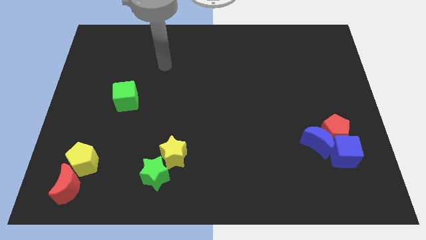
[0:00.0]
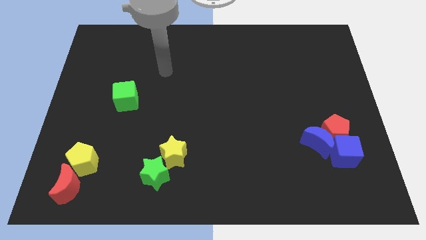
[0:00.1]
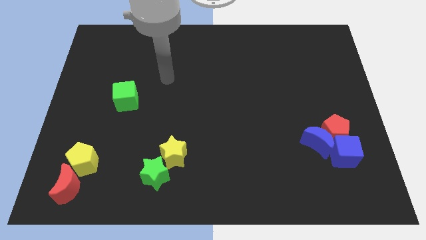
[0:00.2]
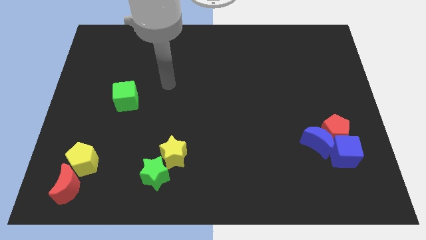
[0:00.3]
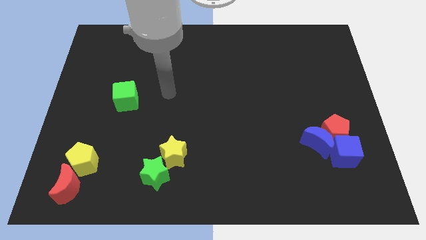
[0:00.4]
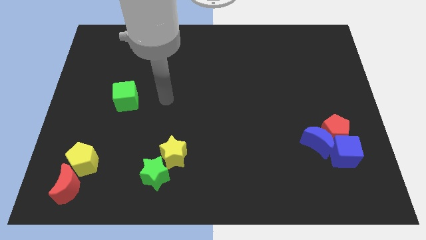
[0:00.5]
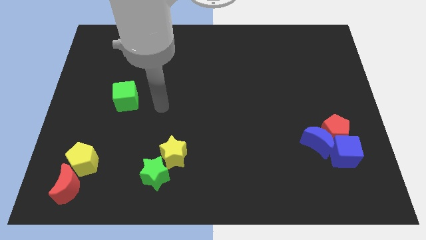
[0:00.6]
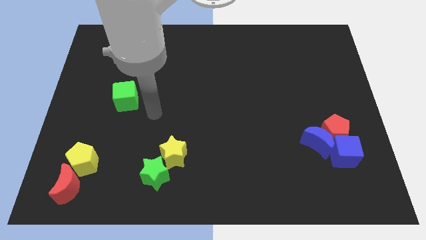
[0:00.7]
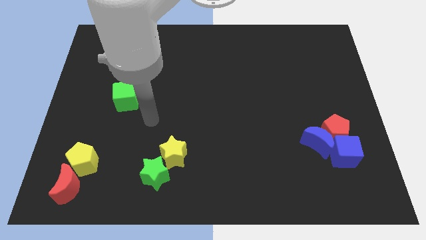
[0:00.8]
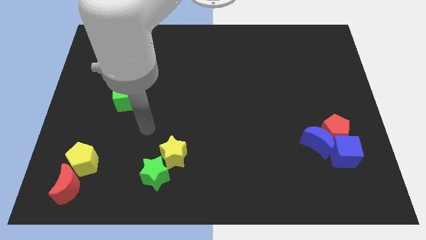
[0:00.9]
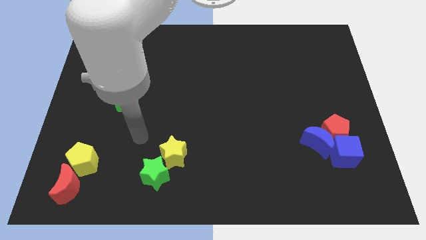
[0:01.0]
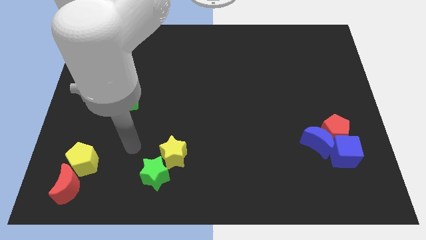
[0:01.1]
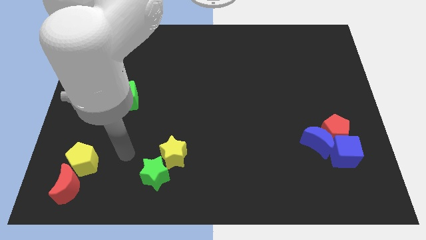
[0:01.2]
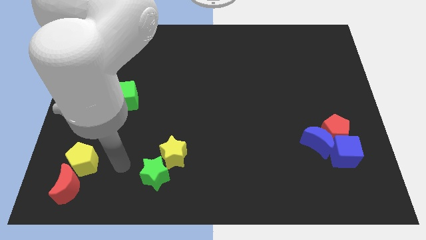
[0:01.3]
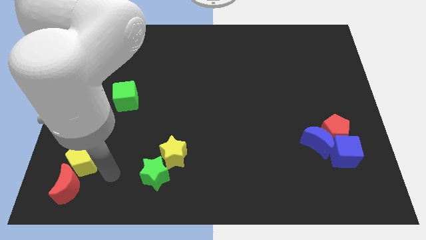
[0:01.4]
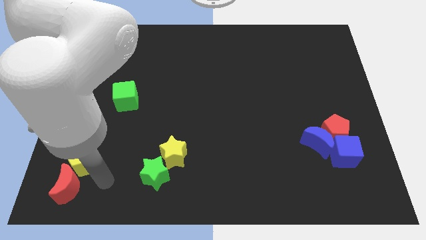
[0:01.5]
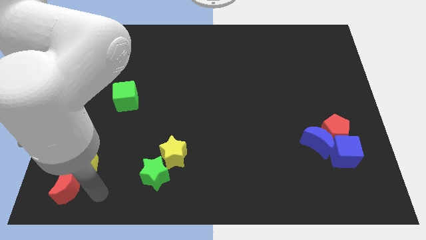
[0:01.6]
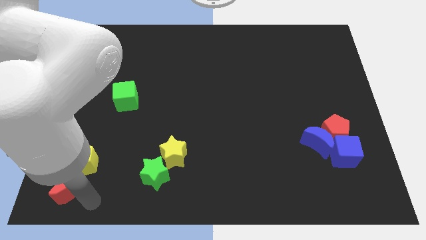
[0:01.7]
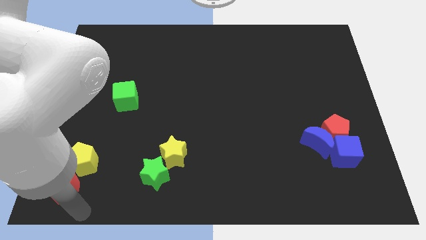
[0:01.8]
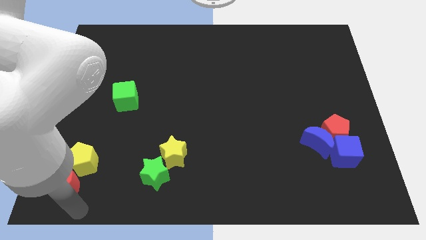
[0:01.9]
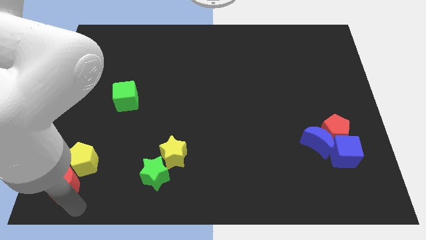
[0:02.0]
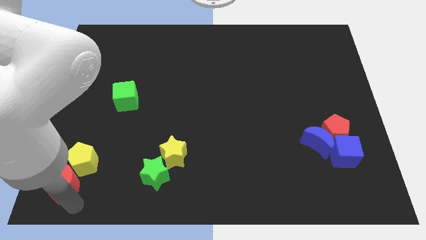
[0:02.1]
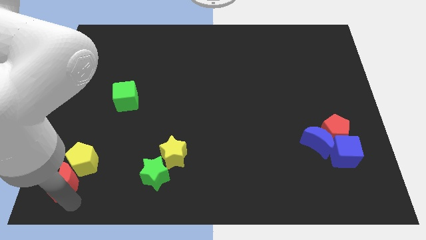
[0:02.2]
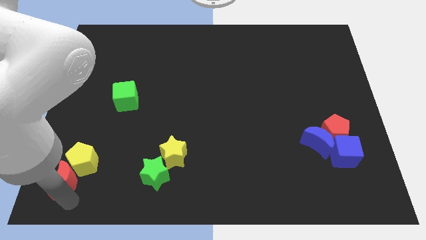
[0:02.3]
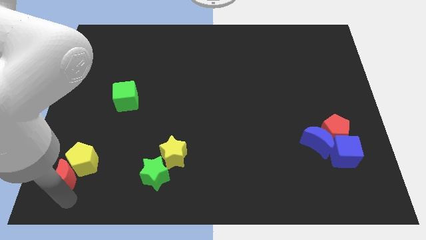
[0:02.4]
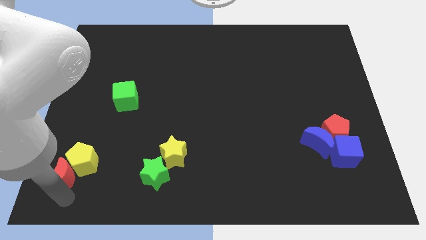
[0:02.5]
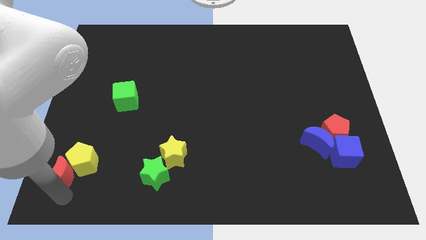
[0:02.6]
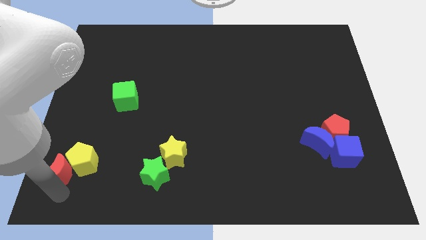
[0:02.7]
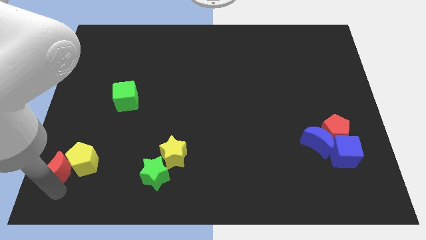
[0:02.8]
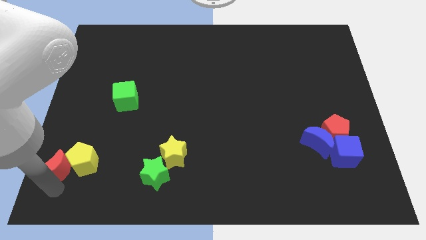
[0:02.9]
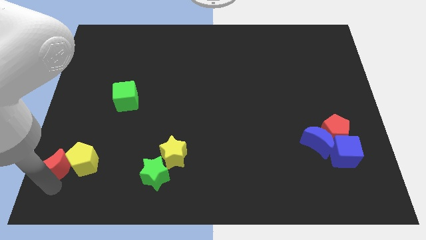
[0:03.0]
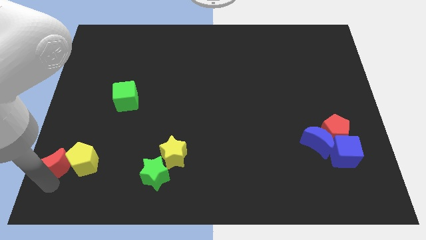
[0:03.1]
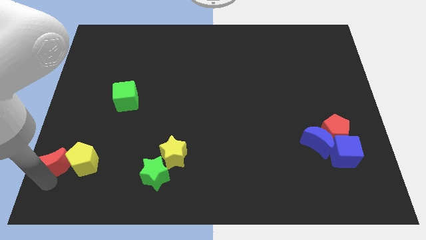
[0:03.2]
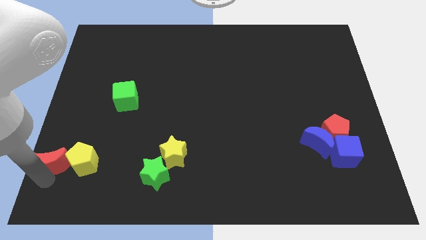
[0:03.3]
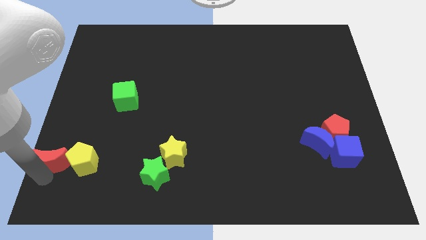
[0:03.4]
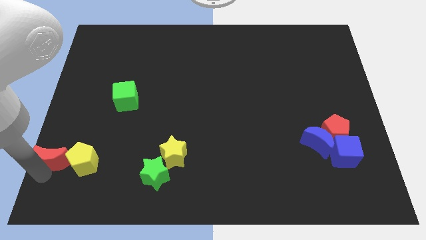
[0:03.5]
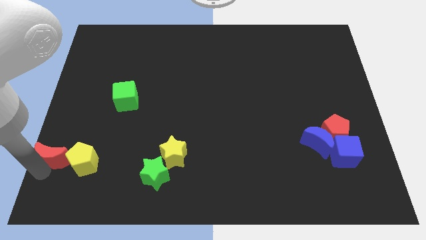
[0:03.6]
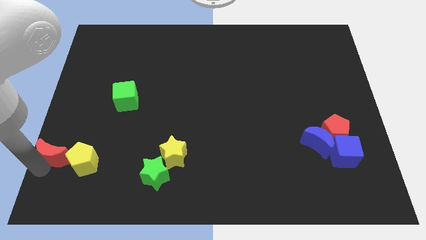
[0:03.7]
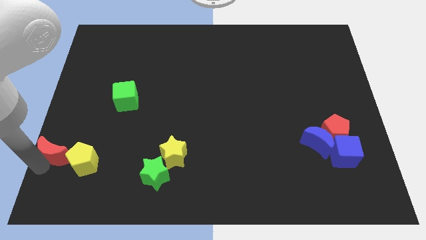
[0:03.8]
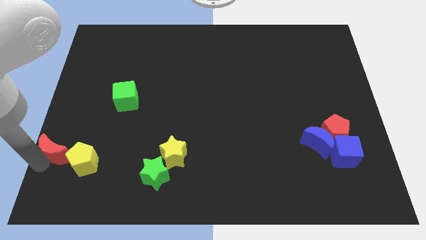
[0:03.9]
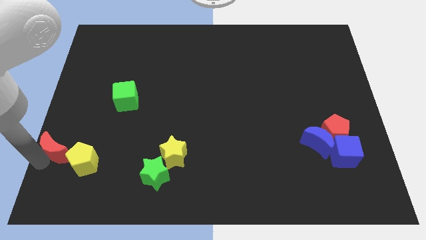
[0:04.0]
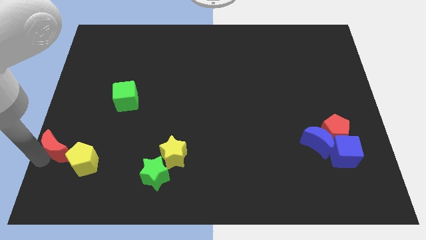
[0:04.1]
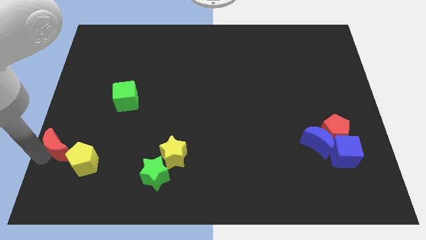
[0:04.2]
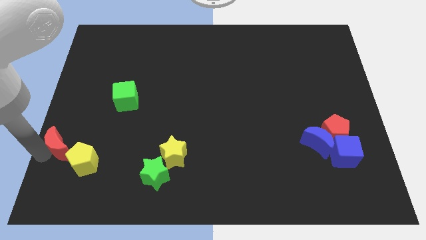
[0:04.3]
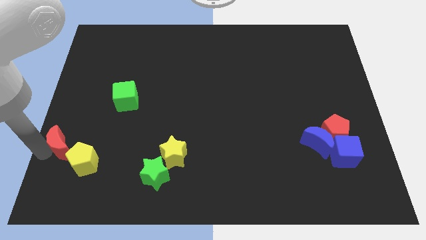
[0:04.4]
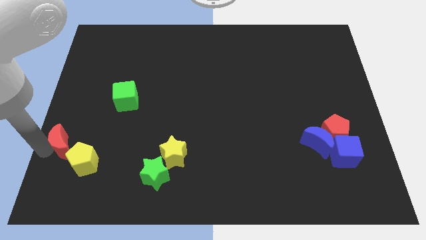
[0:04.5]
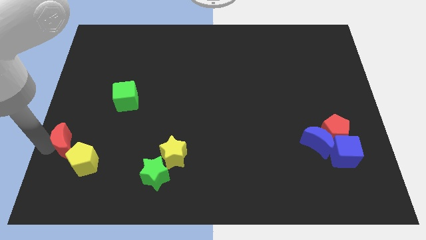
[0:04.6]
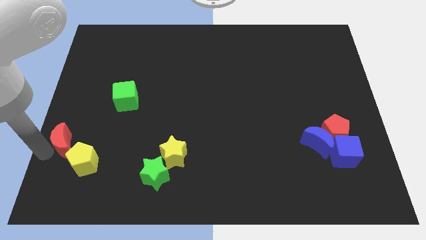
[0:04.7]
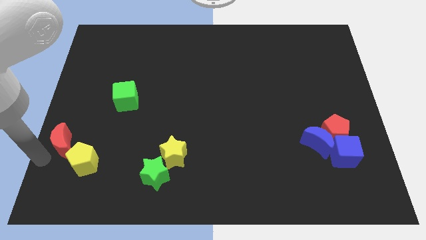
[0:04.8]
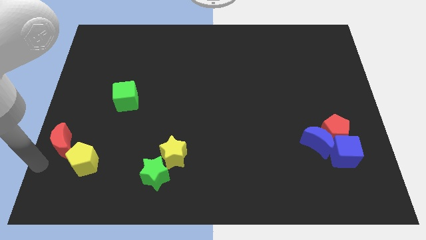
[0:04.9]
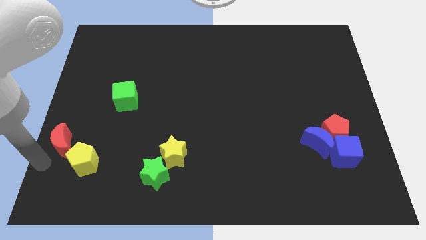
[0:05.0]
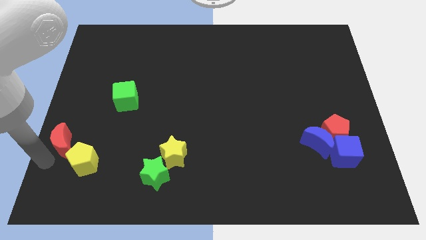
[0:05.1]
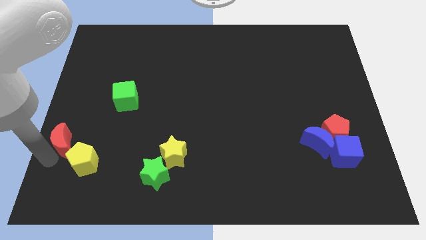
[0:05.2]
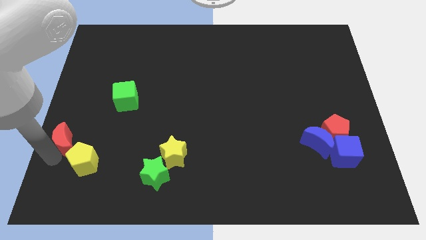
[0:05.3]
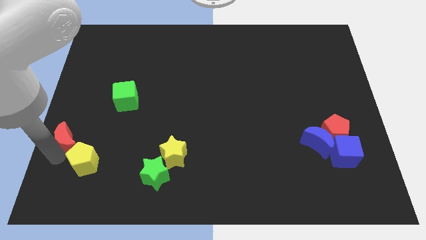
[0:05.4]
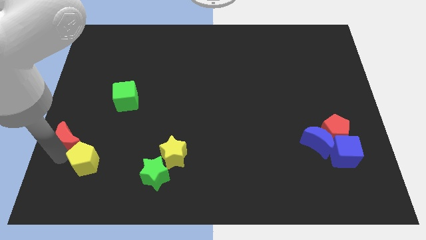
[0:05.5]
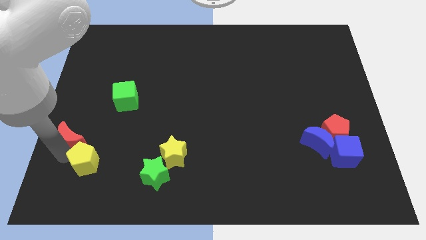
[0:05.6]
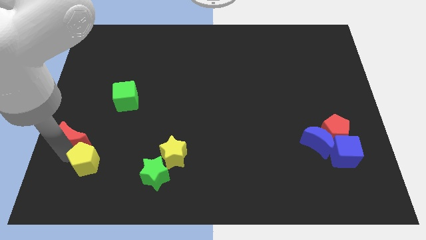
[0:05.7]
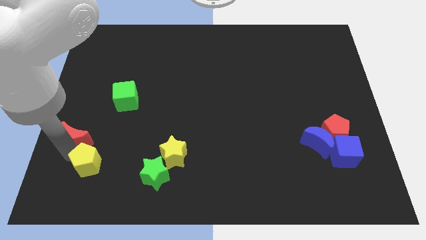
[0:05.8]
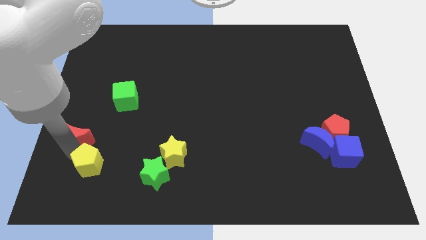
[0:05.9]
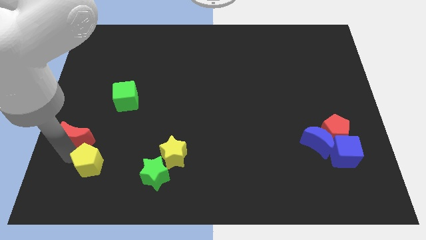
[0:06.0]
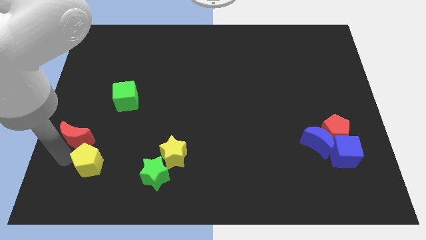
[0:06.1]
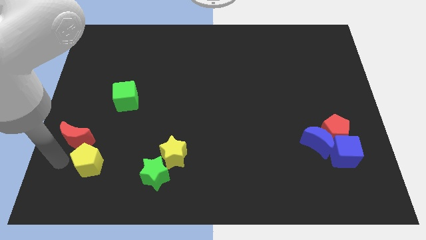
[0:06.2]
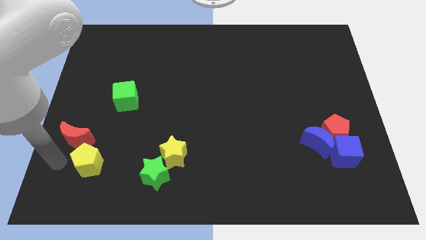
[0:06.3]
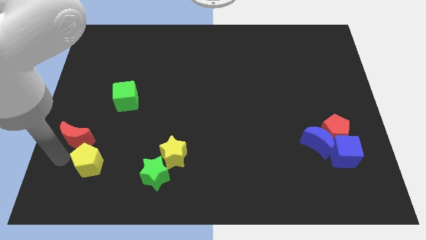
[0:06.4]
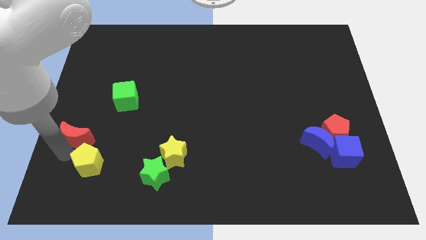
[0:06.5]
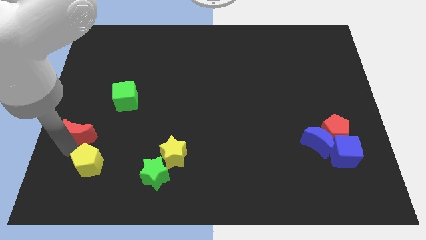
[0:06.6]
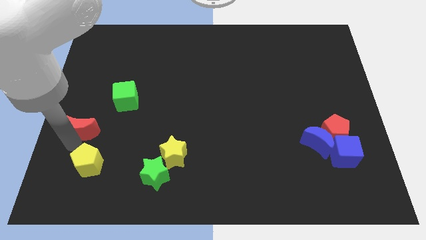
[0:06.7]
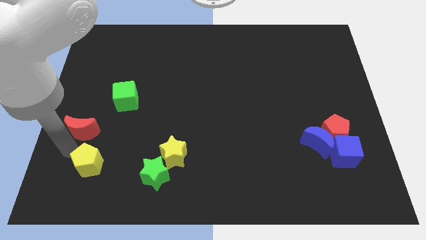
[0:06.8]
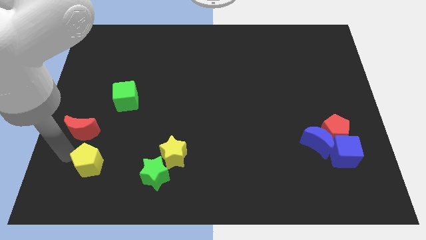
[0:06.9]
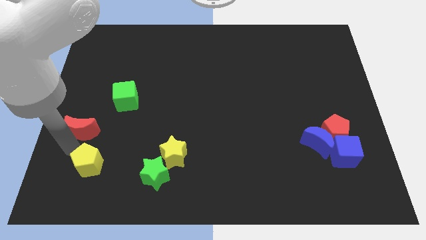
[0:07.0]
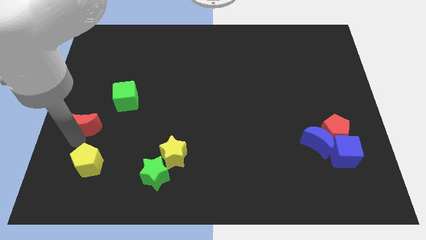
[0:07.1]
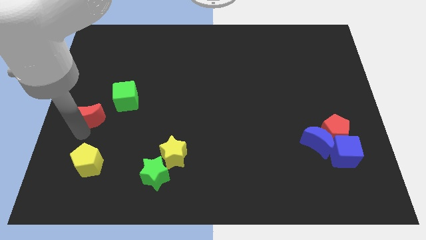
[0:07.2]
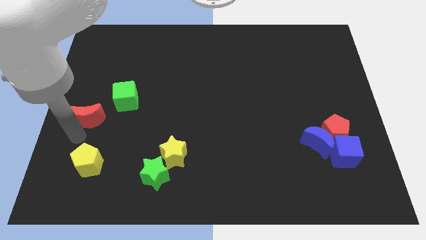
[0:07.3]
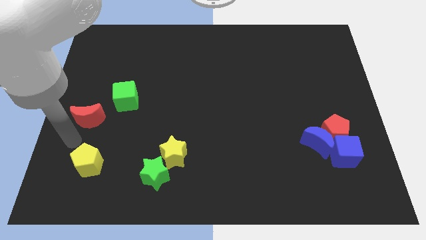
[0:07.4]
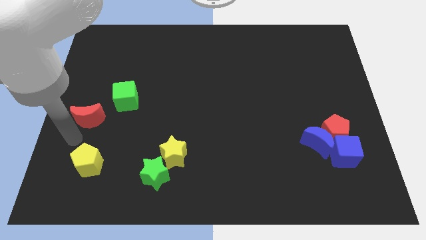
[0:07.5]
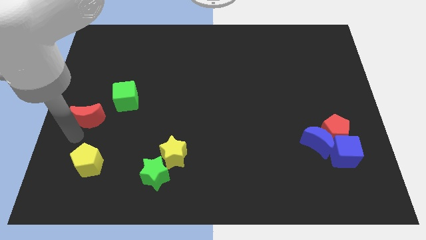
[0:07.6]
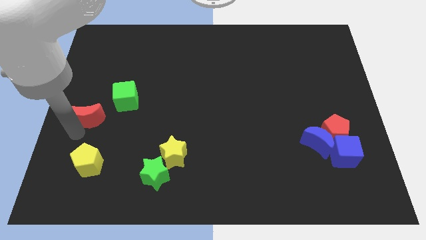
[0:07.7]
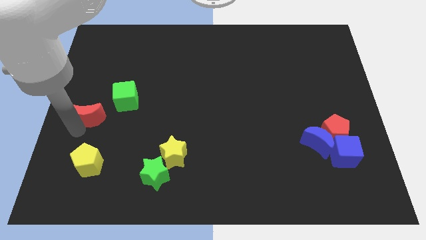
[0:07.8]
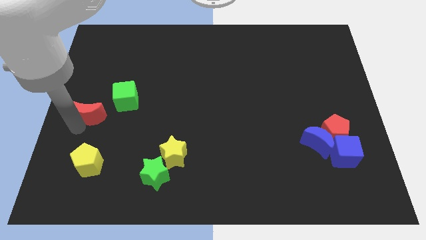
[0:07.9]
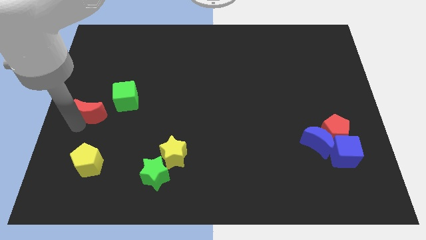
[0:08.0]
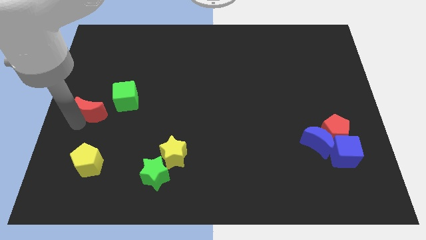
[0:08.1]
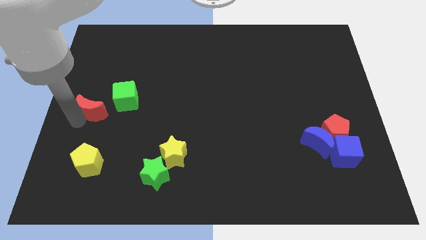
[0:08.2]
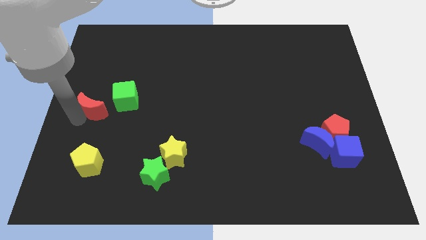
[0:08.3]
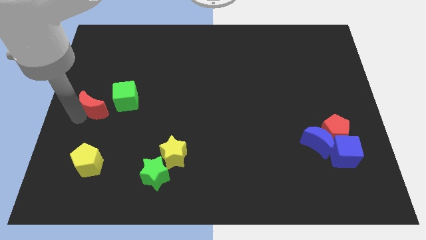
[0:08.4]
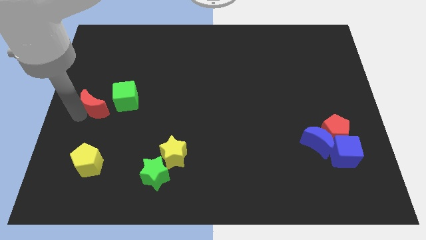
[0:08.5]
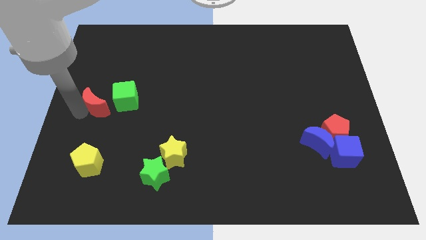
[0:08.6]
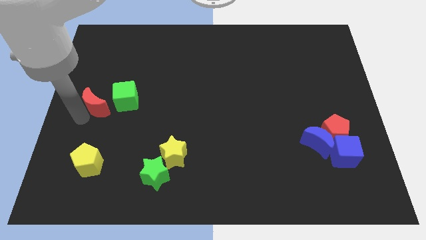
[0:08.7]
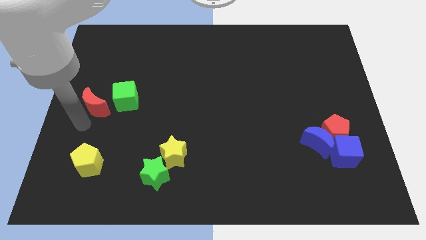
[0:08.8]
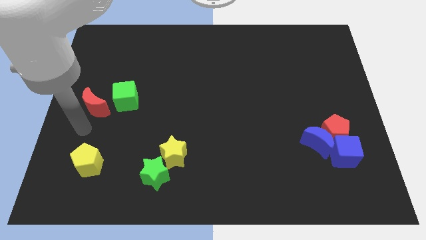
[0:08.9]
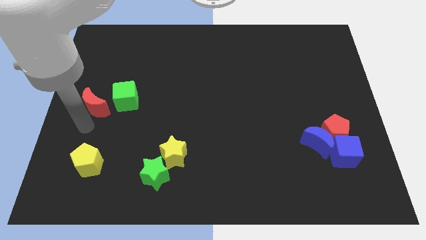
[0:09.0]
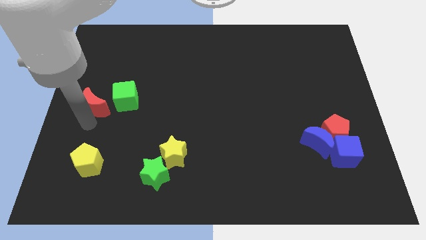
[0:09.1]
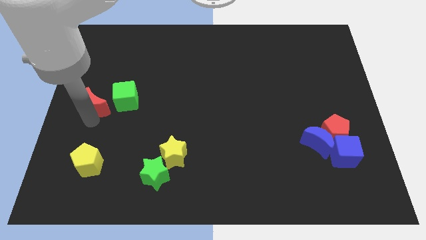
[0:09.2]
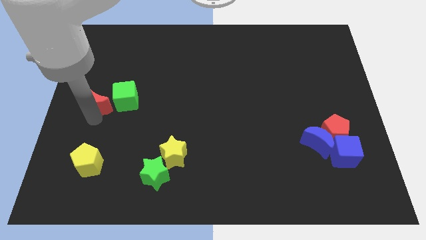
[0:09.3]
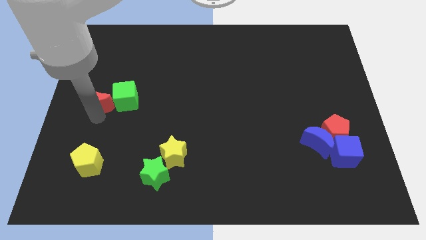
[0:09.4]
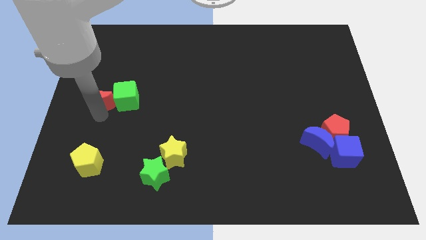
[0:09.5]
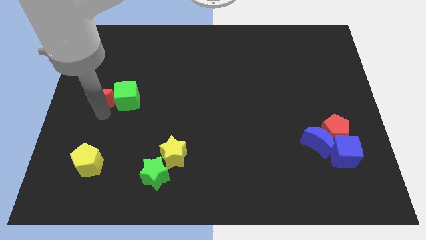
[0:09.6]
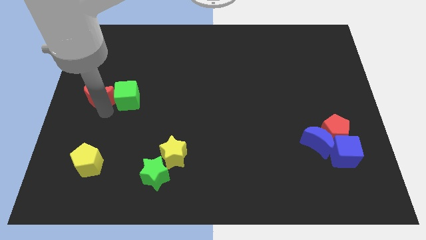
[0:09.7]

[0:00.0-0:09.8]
push the red moon to the top left of the green cube
